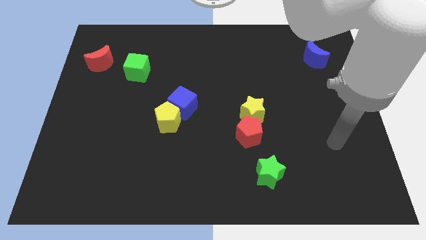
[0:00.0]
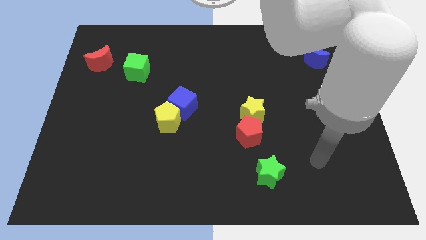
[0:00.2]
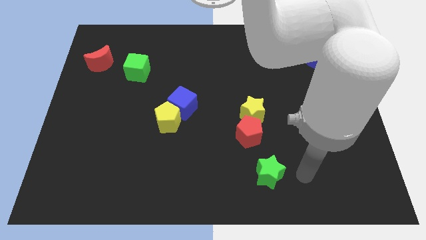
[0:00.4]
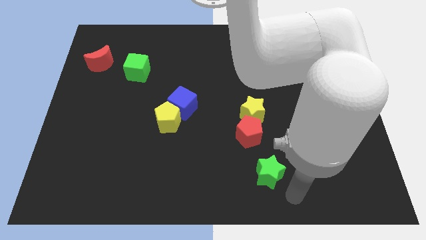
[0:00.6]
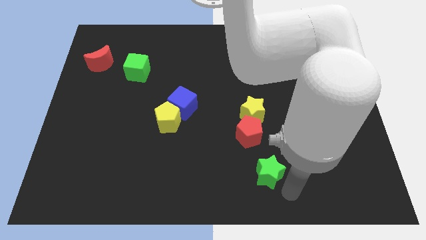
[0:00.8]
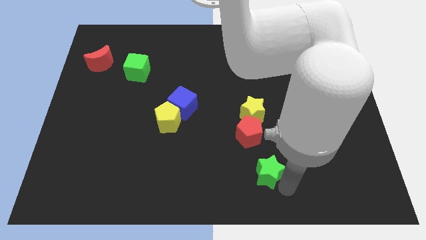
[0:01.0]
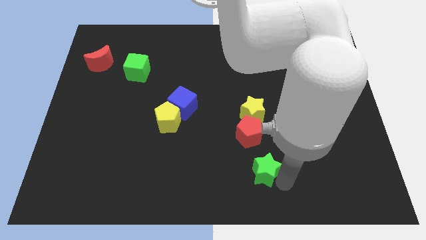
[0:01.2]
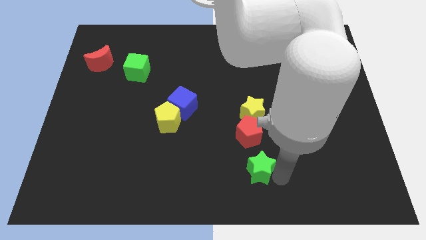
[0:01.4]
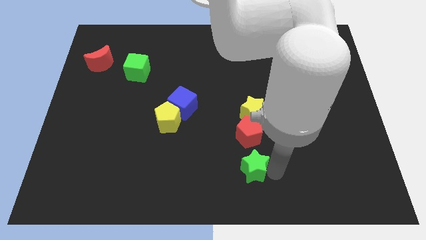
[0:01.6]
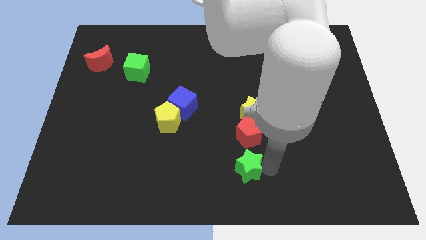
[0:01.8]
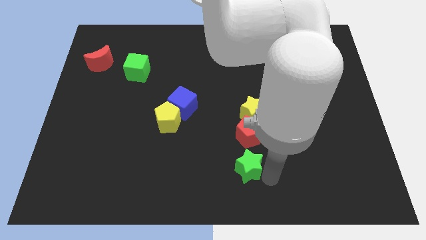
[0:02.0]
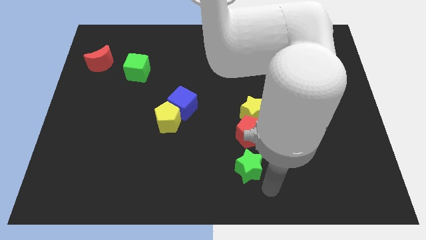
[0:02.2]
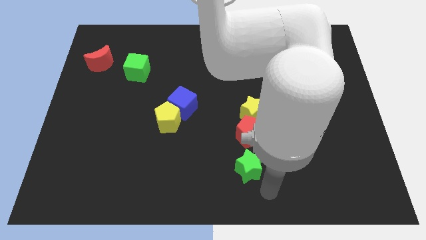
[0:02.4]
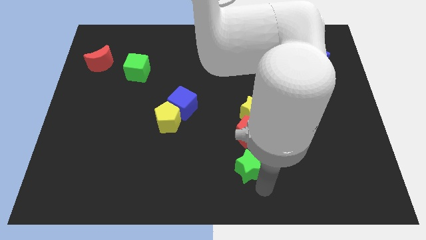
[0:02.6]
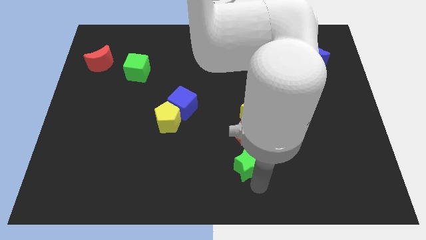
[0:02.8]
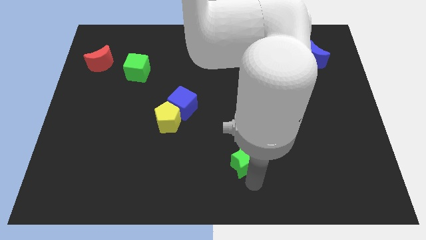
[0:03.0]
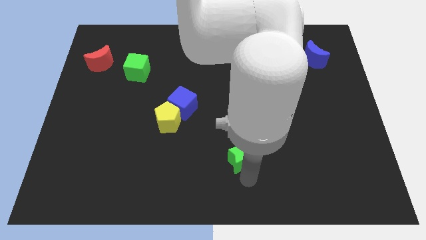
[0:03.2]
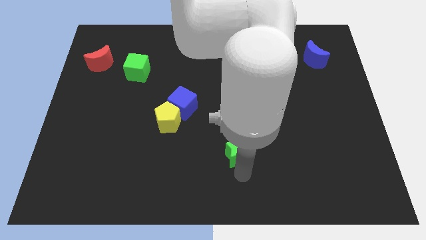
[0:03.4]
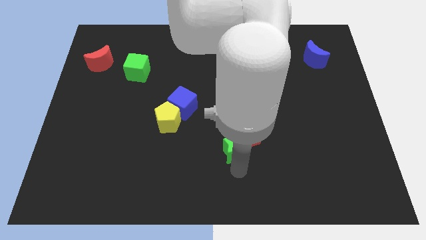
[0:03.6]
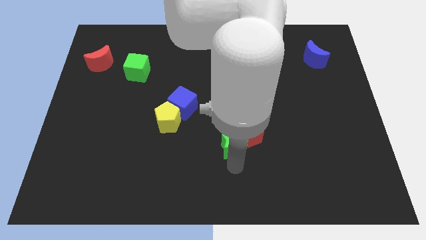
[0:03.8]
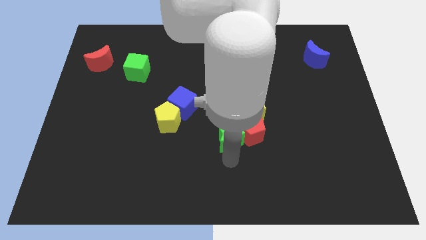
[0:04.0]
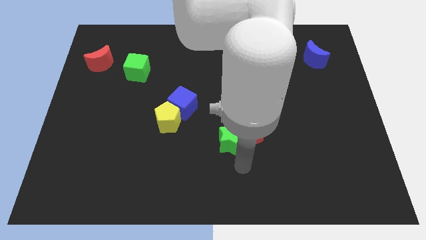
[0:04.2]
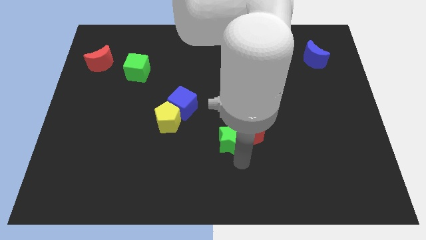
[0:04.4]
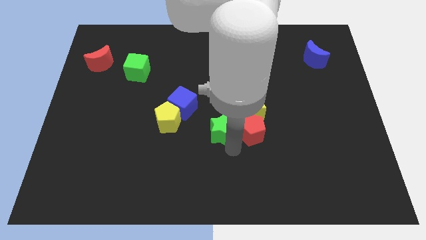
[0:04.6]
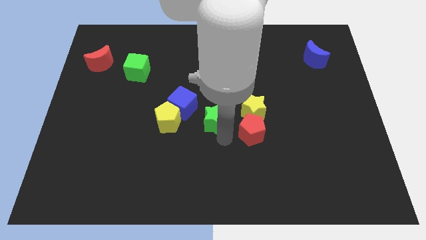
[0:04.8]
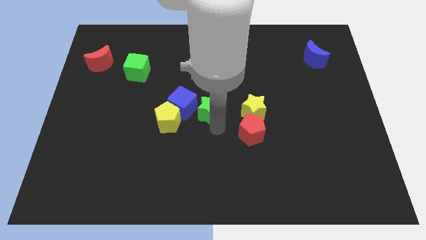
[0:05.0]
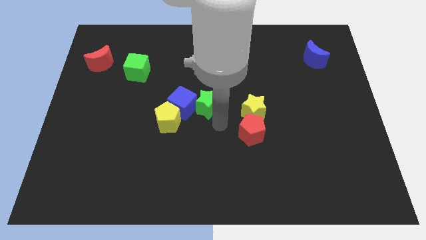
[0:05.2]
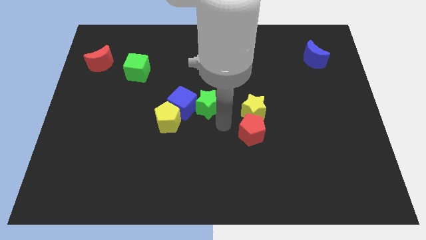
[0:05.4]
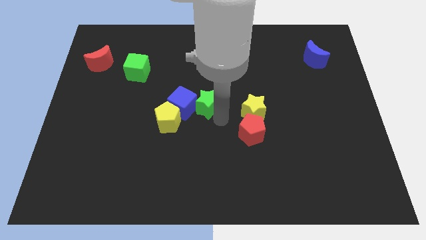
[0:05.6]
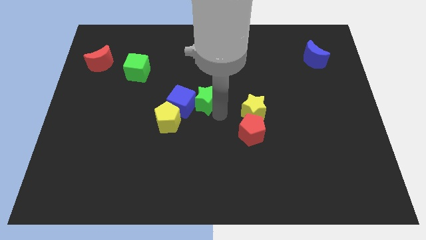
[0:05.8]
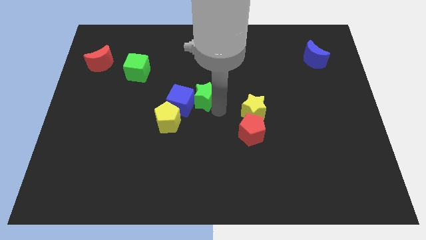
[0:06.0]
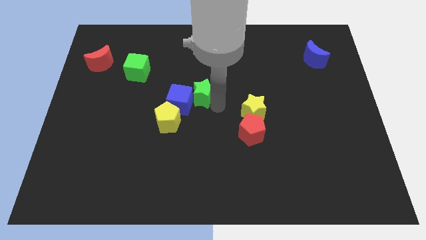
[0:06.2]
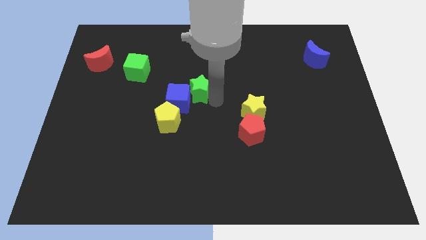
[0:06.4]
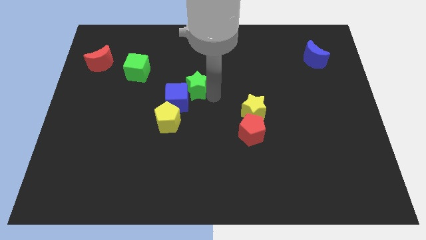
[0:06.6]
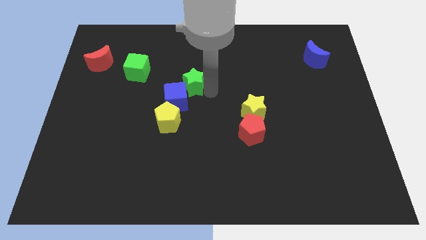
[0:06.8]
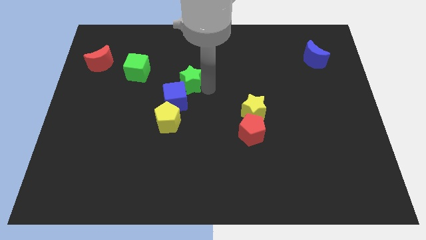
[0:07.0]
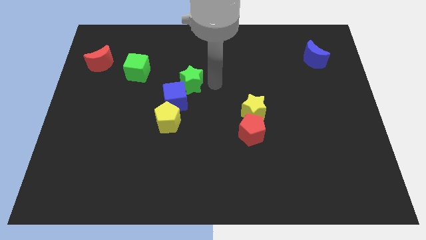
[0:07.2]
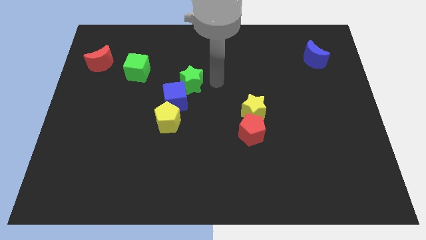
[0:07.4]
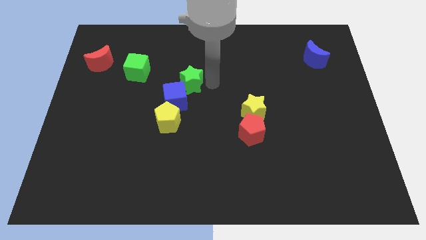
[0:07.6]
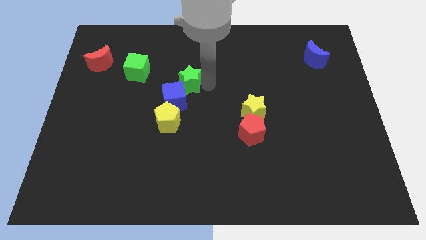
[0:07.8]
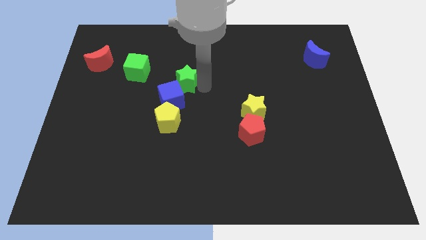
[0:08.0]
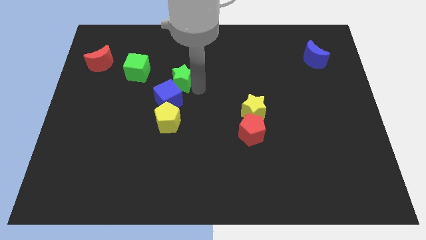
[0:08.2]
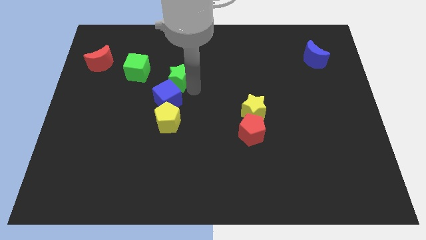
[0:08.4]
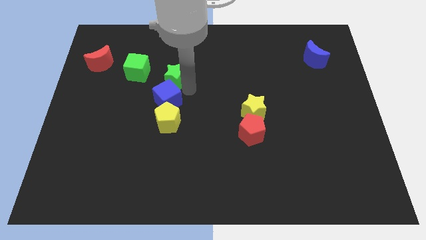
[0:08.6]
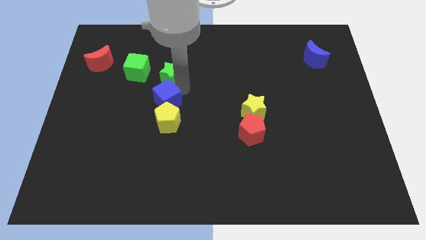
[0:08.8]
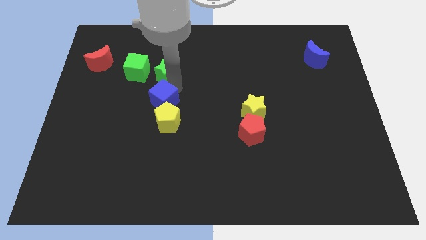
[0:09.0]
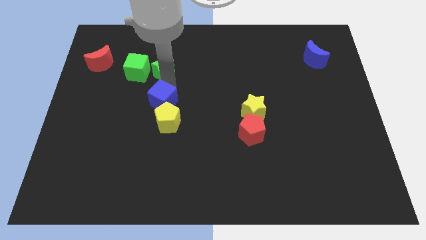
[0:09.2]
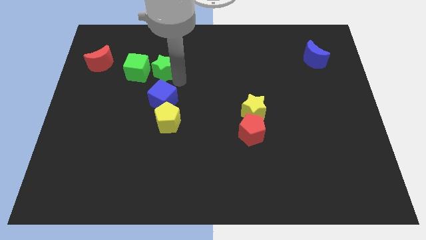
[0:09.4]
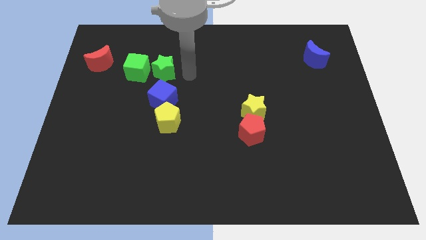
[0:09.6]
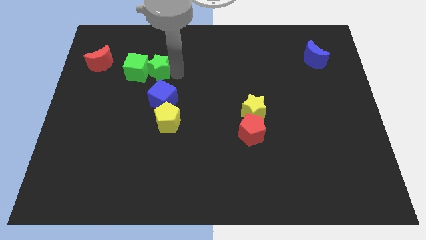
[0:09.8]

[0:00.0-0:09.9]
slide the green star next to the green cube

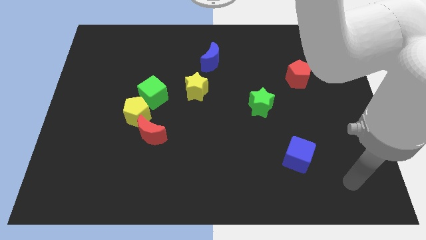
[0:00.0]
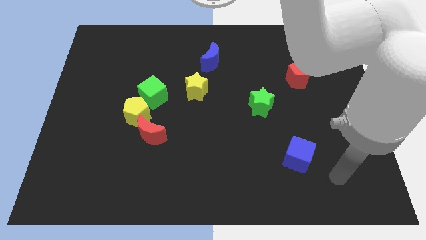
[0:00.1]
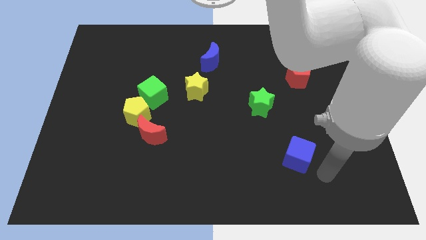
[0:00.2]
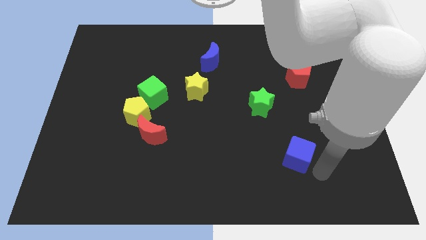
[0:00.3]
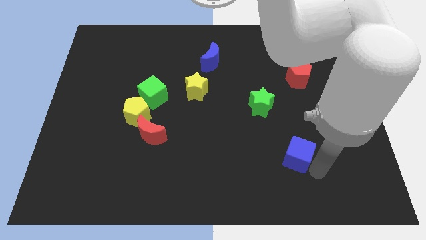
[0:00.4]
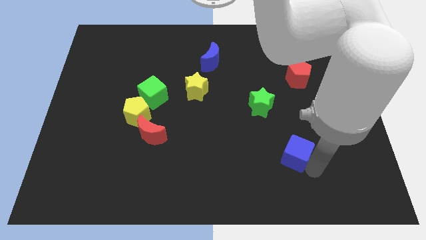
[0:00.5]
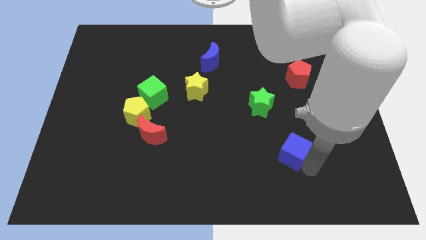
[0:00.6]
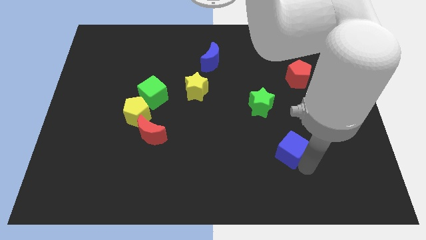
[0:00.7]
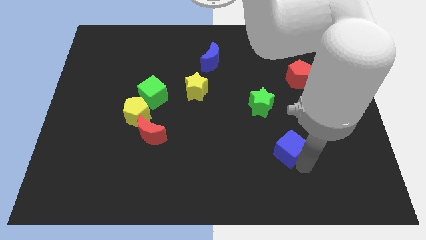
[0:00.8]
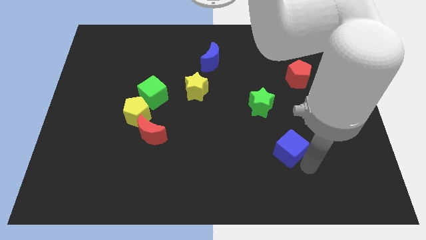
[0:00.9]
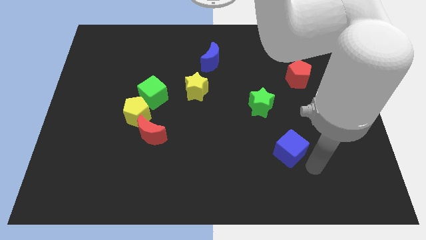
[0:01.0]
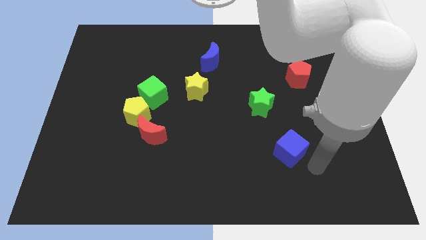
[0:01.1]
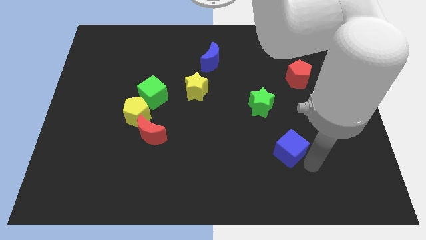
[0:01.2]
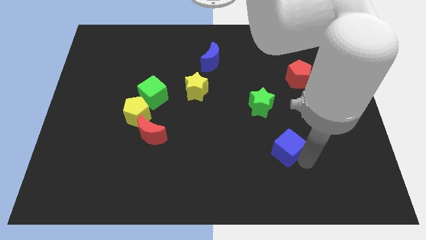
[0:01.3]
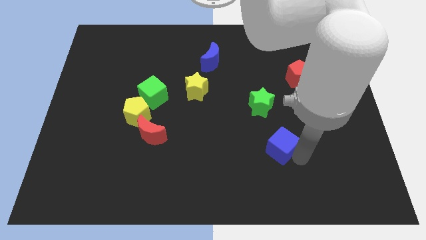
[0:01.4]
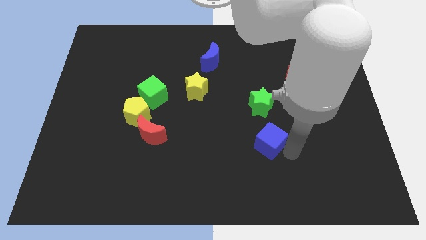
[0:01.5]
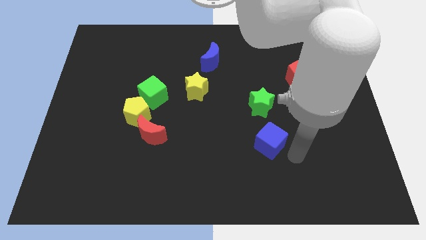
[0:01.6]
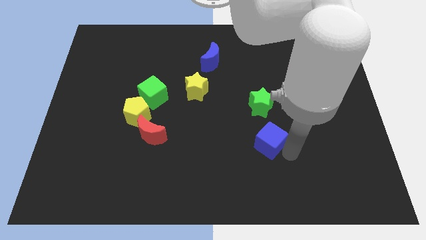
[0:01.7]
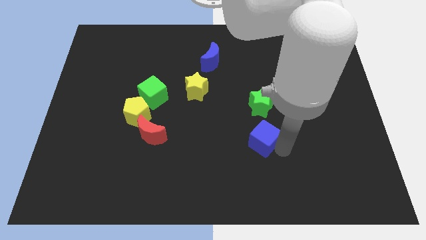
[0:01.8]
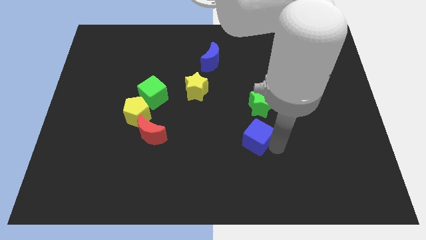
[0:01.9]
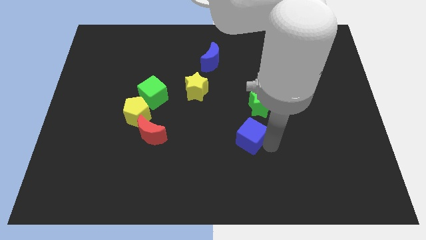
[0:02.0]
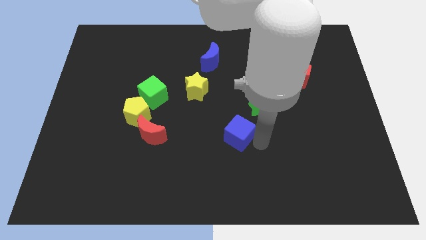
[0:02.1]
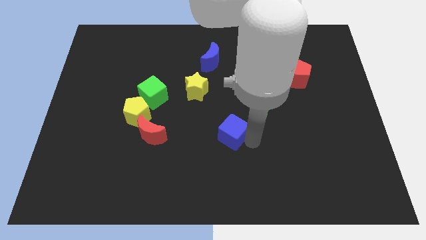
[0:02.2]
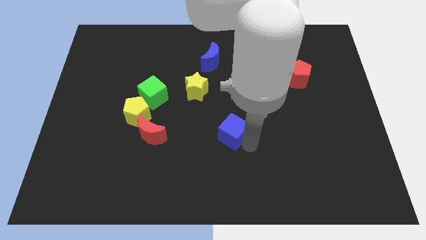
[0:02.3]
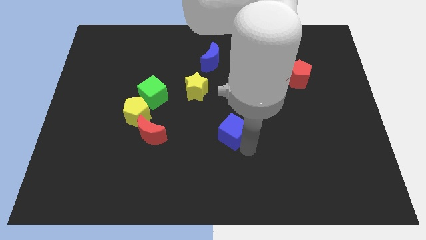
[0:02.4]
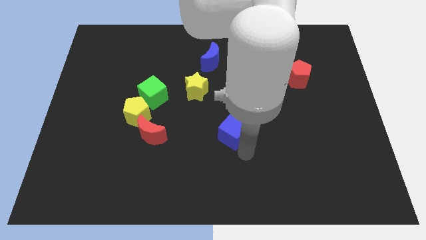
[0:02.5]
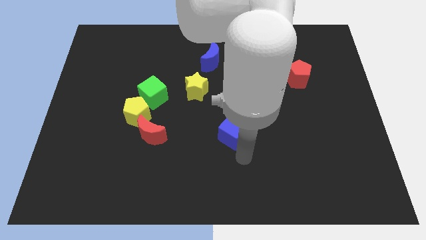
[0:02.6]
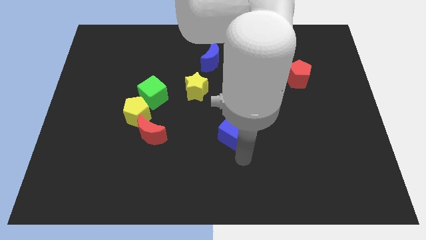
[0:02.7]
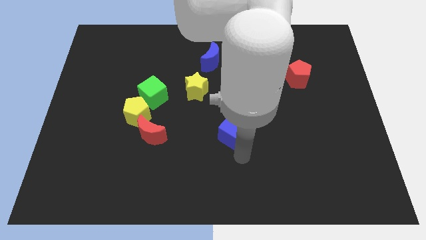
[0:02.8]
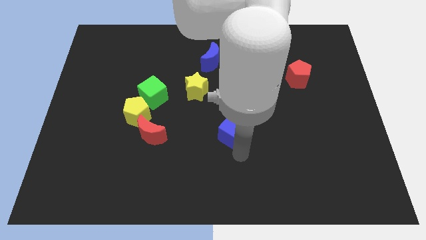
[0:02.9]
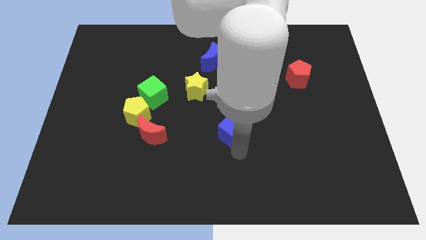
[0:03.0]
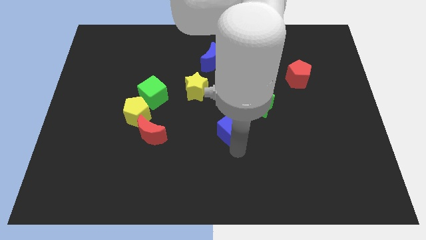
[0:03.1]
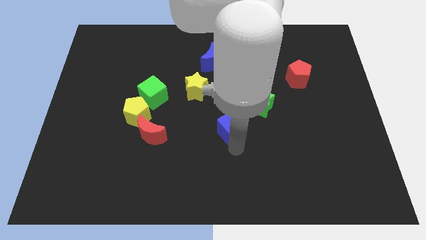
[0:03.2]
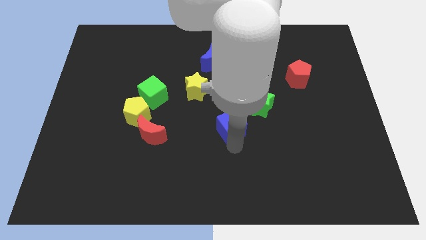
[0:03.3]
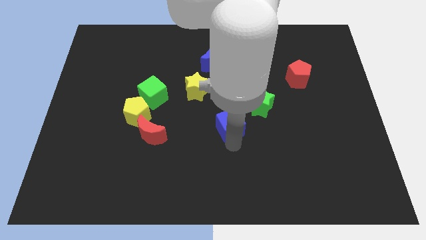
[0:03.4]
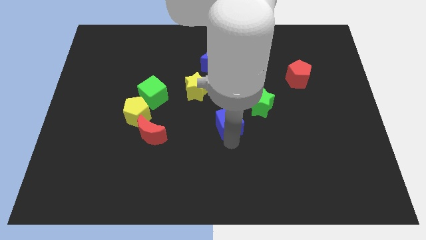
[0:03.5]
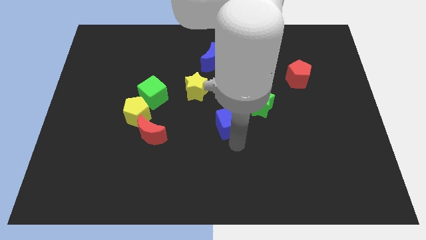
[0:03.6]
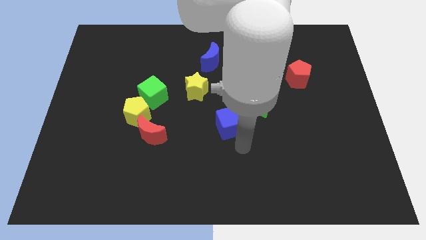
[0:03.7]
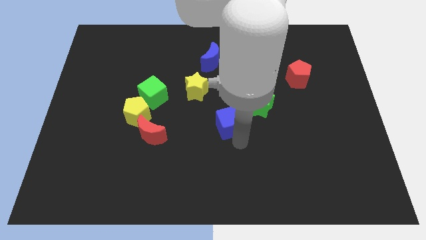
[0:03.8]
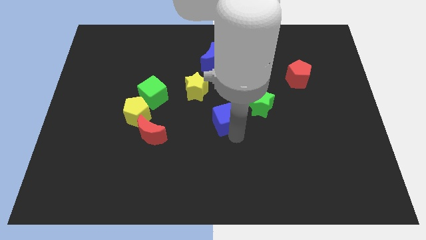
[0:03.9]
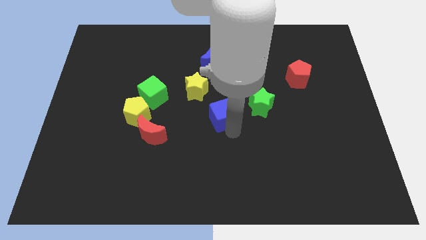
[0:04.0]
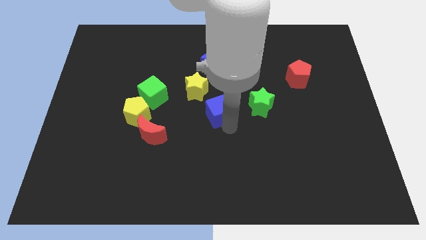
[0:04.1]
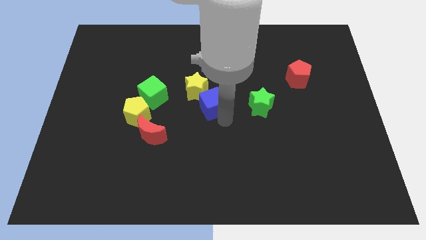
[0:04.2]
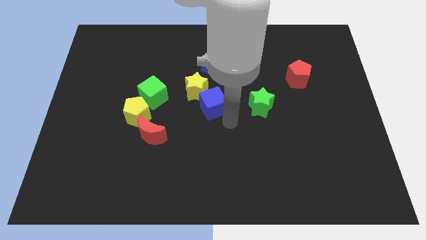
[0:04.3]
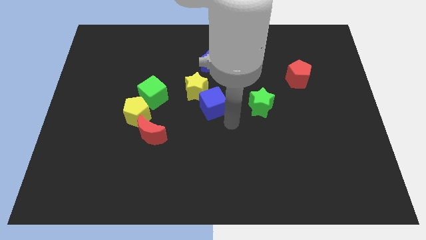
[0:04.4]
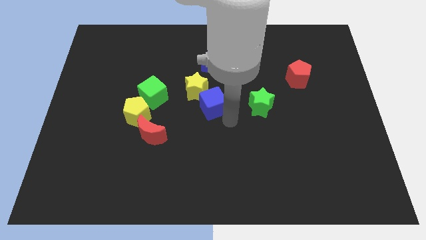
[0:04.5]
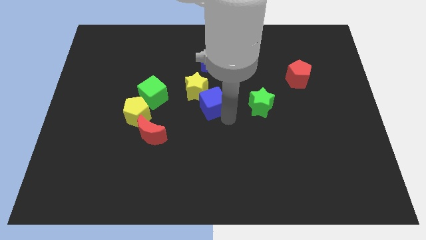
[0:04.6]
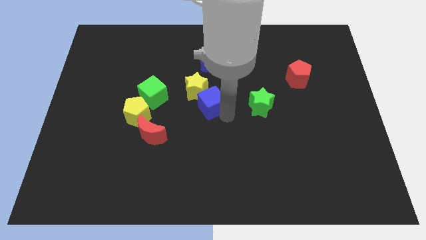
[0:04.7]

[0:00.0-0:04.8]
move the blue cube towards the yellow star
